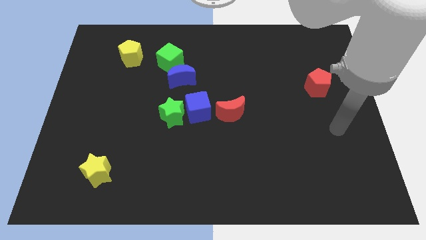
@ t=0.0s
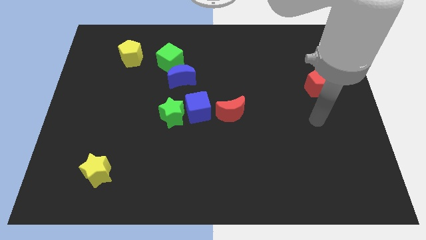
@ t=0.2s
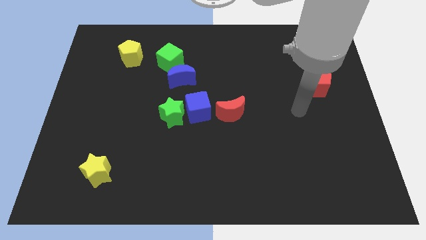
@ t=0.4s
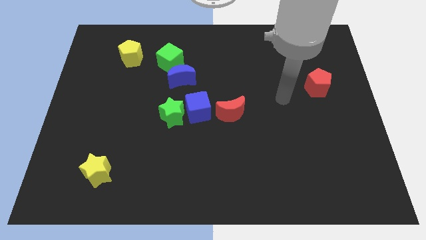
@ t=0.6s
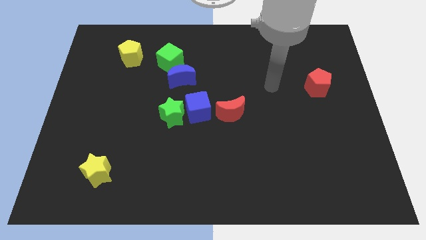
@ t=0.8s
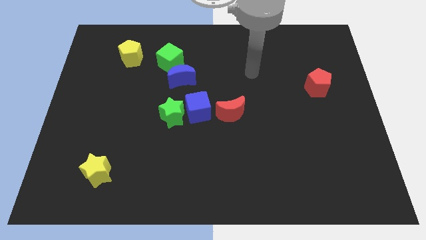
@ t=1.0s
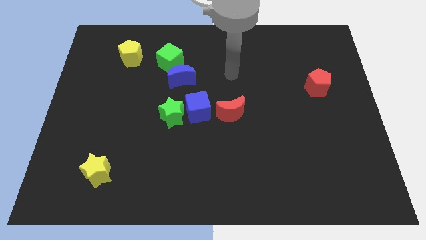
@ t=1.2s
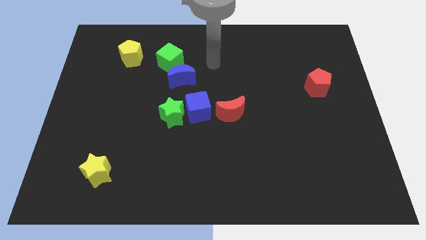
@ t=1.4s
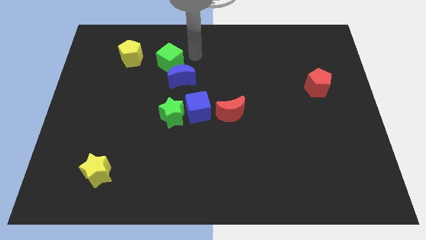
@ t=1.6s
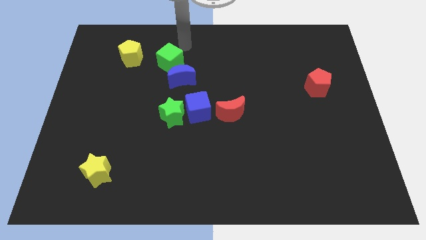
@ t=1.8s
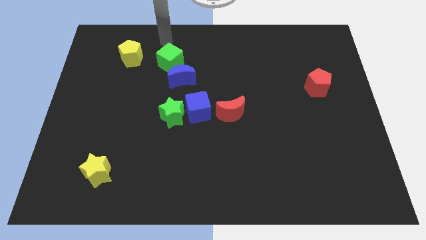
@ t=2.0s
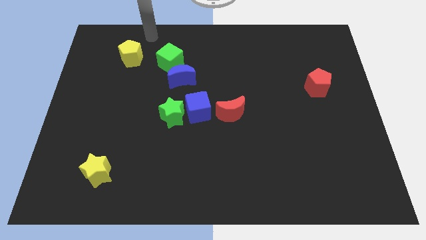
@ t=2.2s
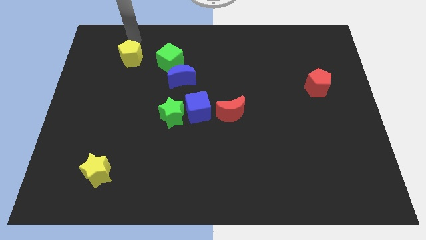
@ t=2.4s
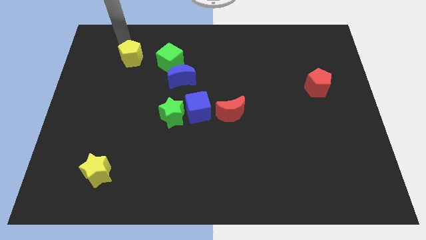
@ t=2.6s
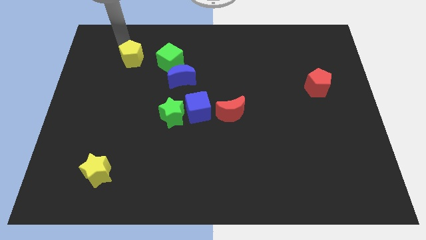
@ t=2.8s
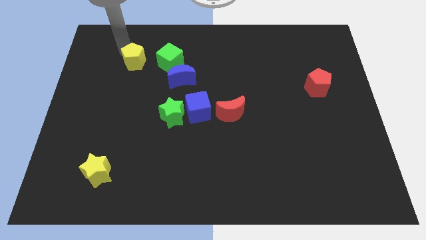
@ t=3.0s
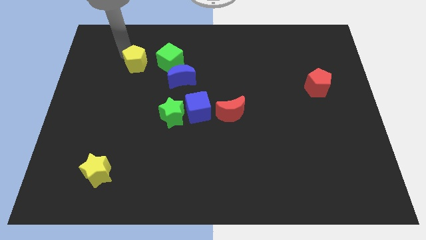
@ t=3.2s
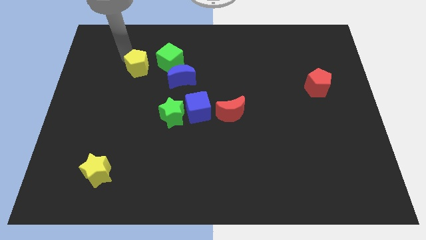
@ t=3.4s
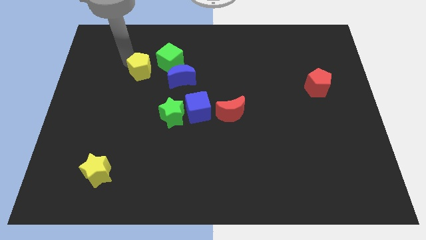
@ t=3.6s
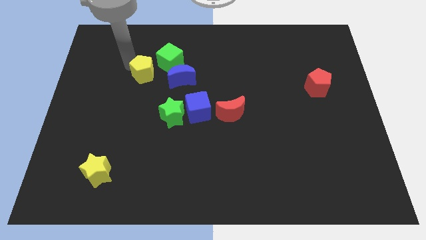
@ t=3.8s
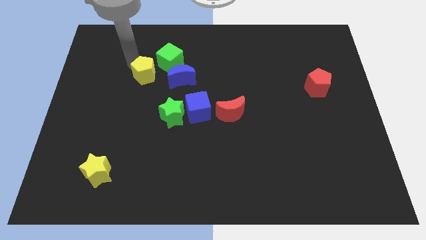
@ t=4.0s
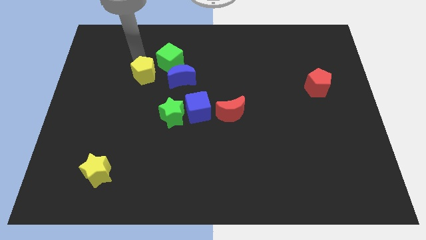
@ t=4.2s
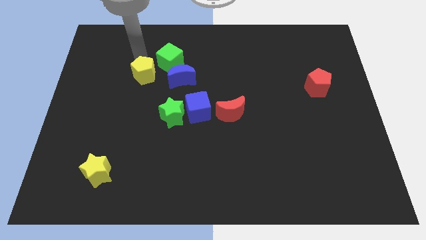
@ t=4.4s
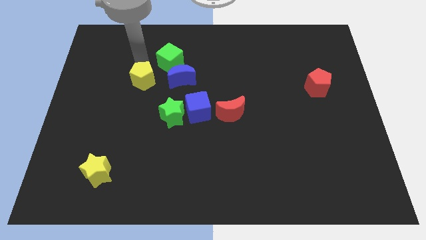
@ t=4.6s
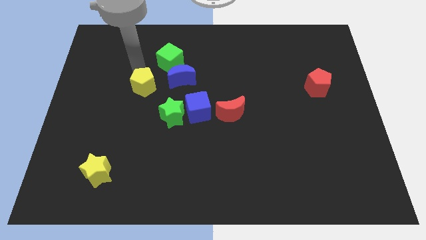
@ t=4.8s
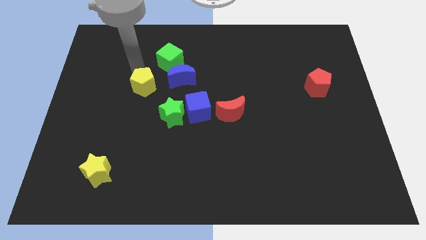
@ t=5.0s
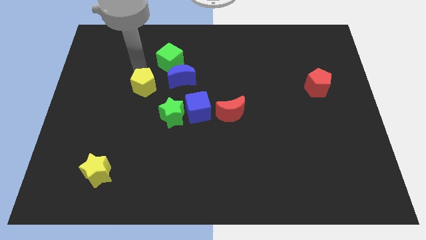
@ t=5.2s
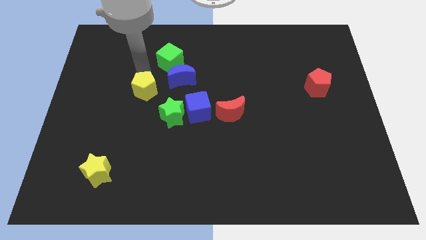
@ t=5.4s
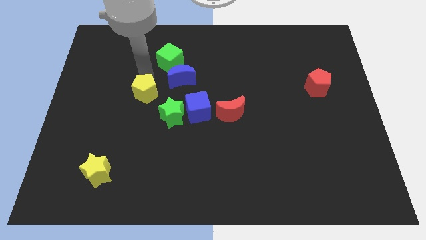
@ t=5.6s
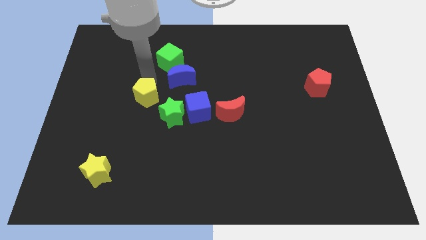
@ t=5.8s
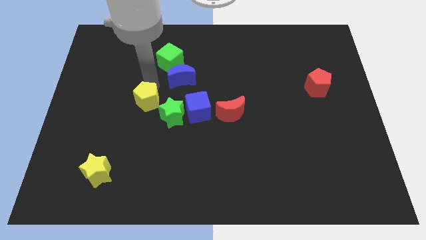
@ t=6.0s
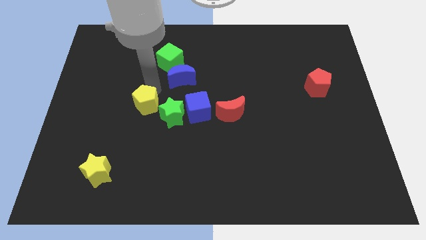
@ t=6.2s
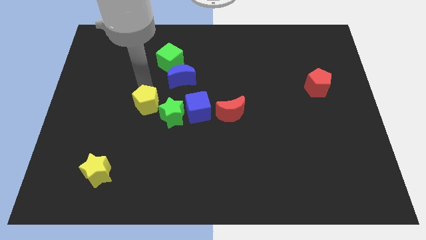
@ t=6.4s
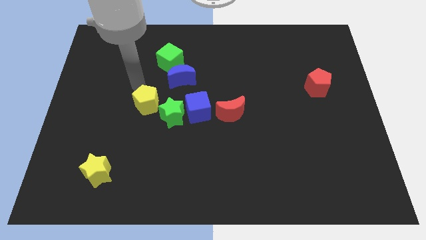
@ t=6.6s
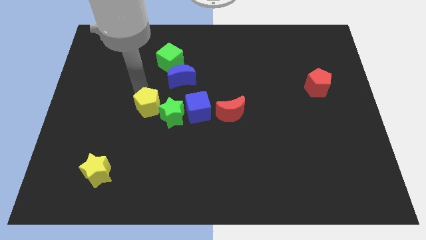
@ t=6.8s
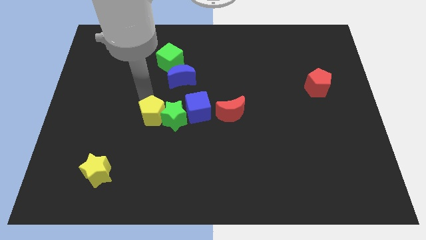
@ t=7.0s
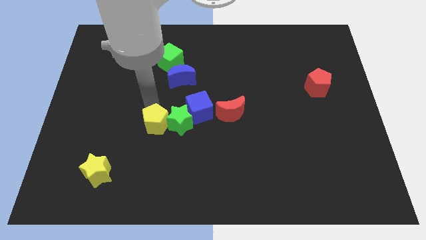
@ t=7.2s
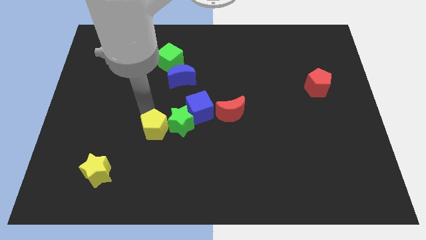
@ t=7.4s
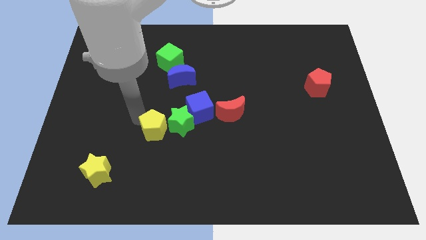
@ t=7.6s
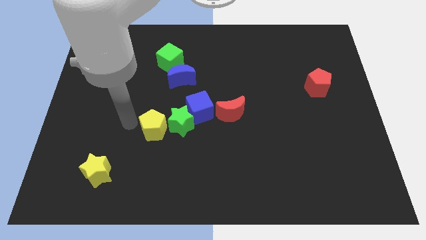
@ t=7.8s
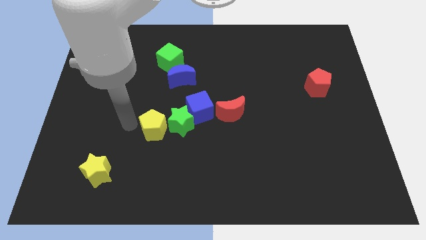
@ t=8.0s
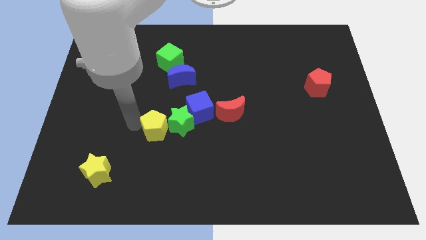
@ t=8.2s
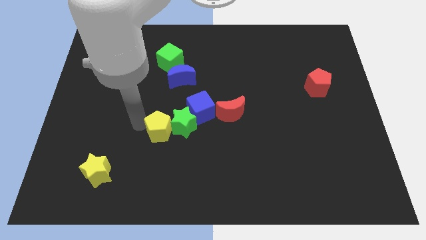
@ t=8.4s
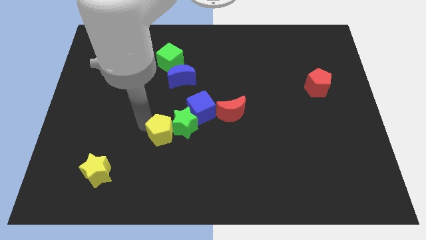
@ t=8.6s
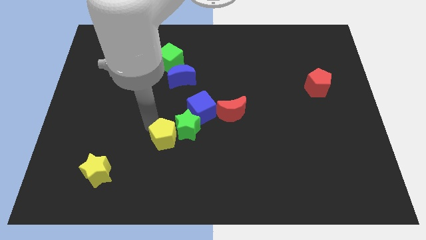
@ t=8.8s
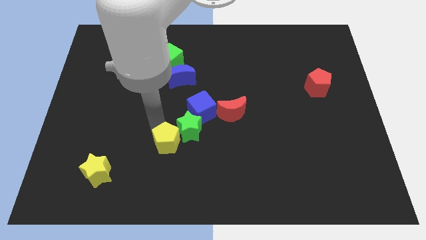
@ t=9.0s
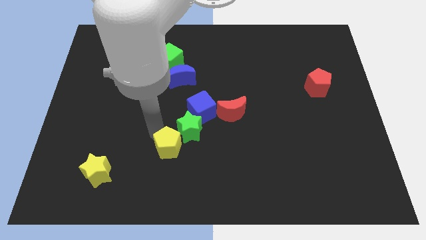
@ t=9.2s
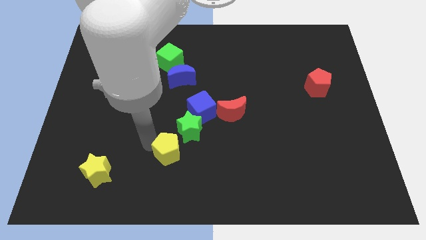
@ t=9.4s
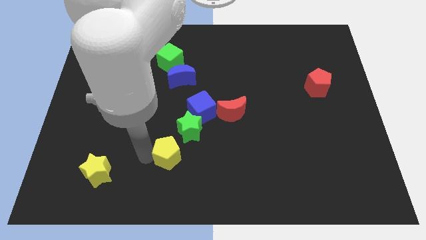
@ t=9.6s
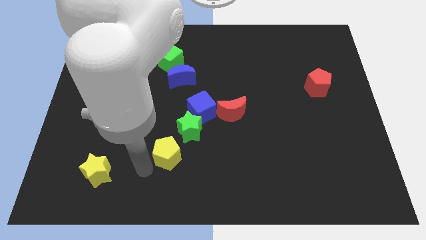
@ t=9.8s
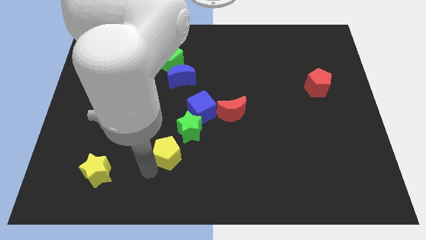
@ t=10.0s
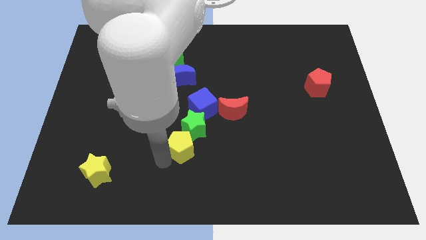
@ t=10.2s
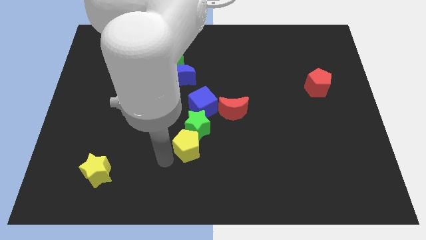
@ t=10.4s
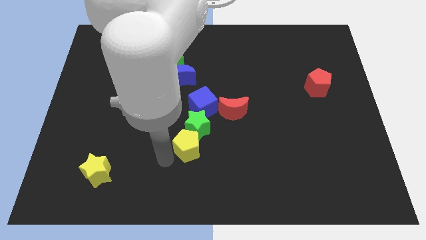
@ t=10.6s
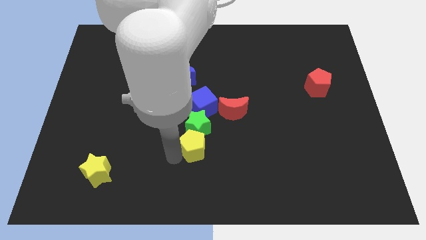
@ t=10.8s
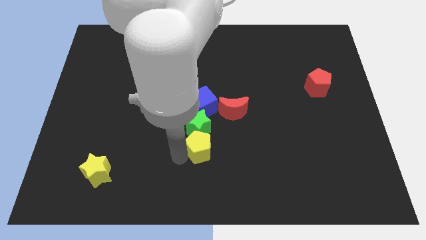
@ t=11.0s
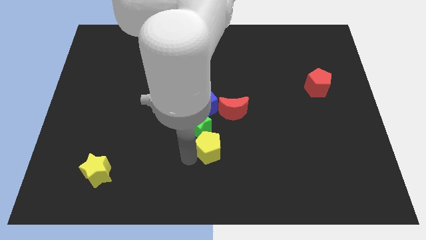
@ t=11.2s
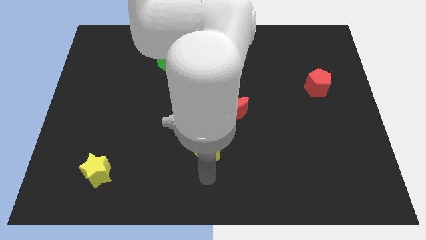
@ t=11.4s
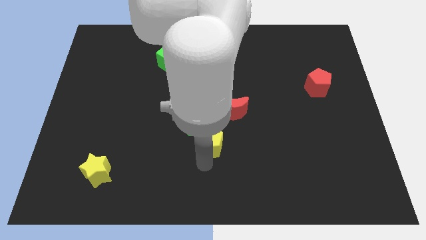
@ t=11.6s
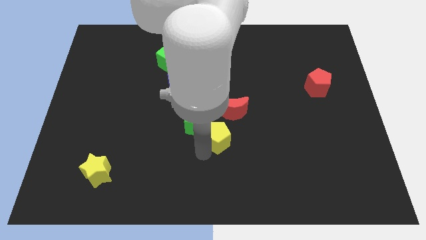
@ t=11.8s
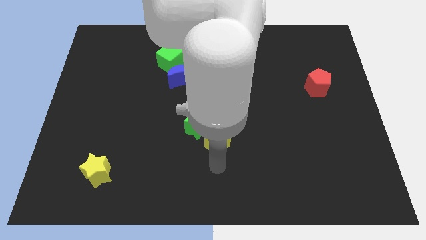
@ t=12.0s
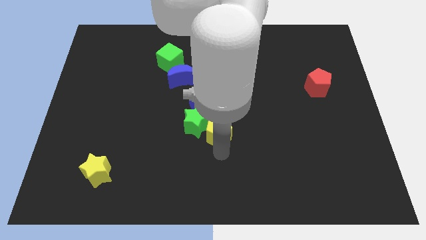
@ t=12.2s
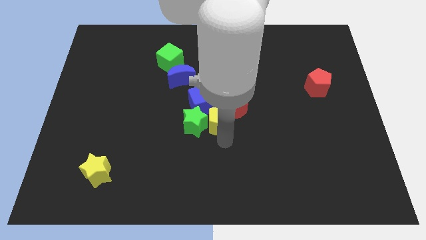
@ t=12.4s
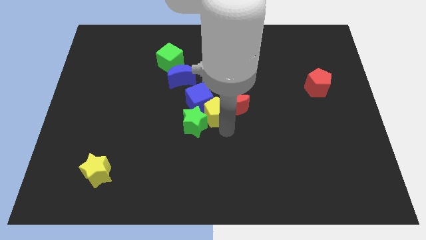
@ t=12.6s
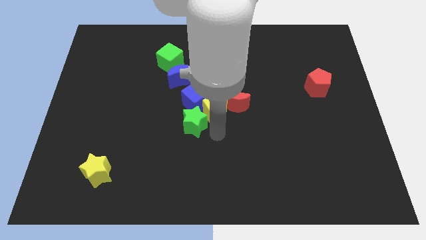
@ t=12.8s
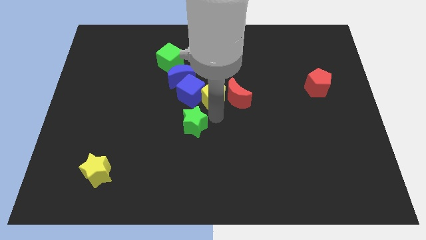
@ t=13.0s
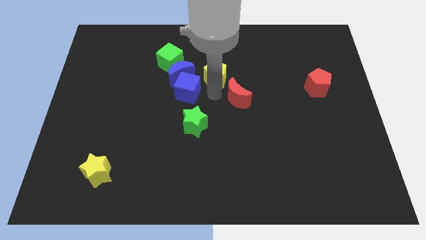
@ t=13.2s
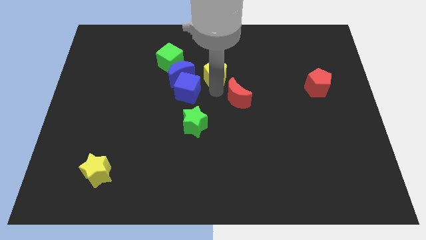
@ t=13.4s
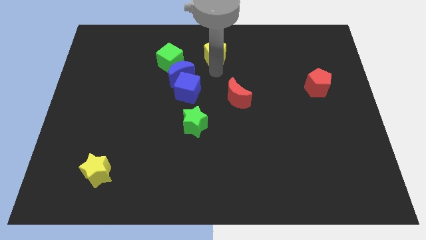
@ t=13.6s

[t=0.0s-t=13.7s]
push the yellow pentagon to the top side
